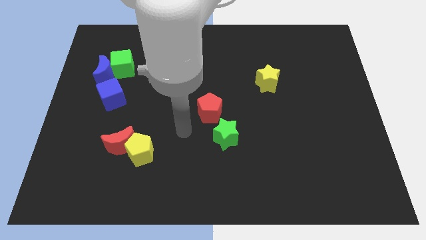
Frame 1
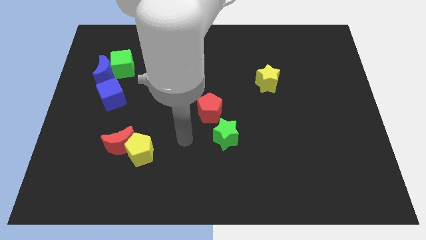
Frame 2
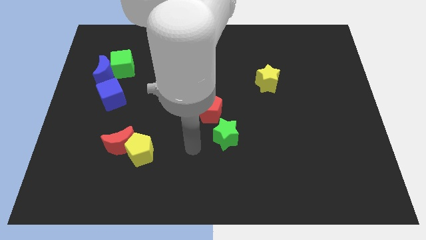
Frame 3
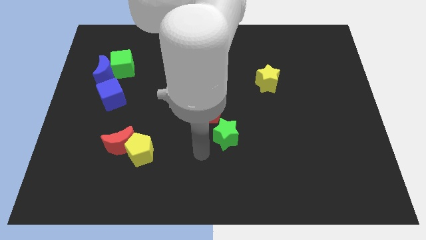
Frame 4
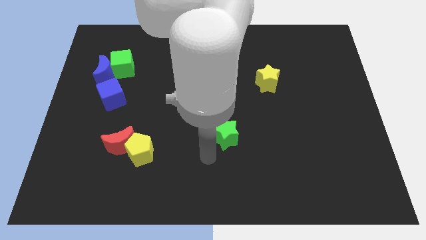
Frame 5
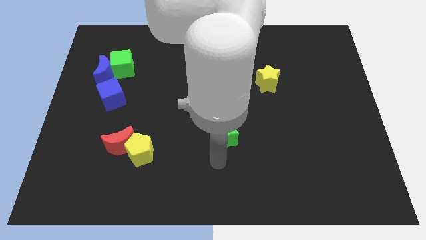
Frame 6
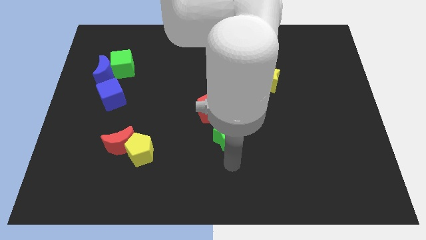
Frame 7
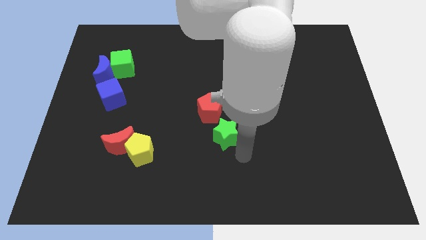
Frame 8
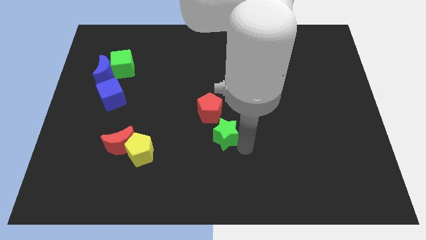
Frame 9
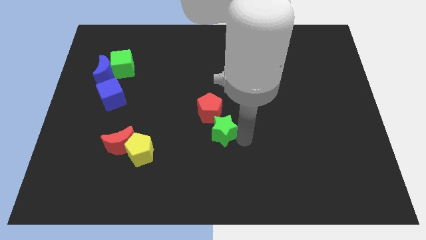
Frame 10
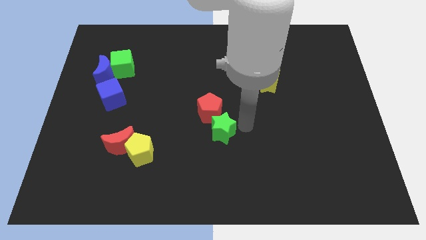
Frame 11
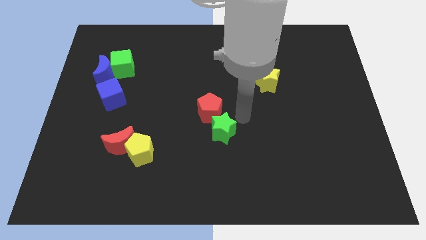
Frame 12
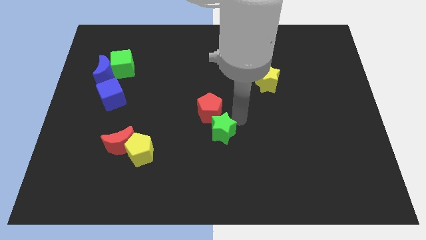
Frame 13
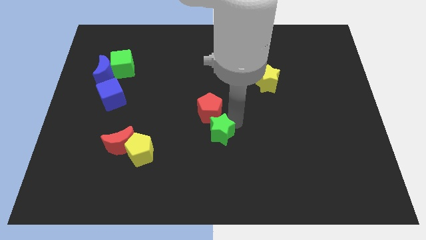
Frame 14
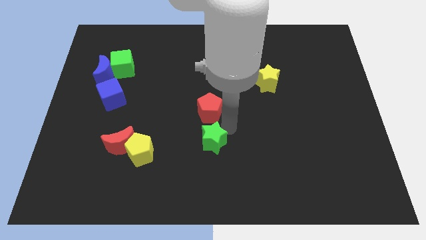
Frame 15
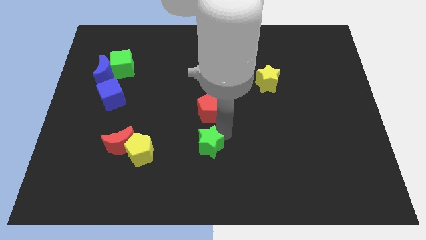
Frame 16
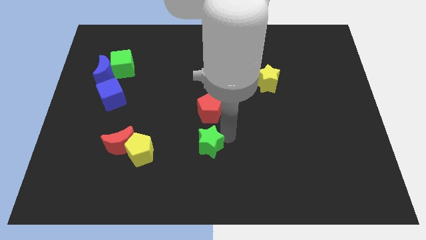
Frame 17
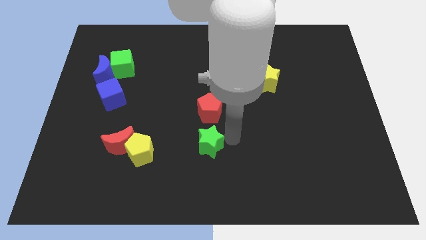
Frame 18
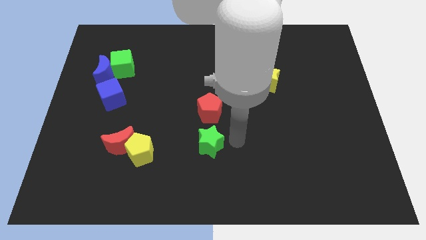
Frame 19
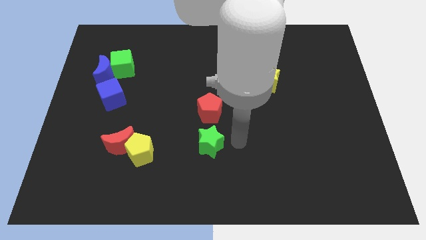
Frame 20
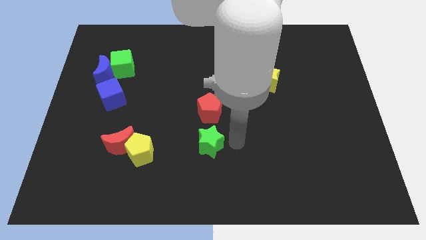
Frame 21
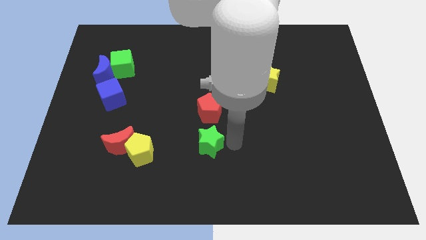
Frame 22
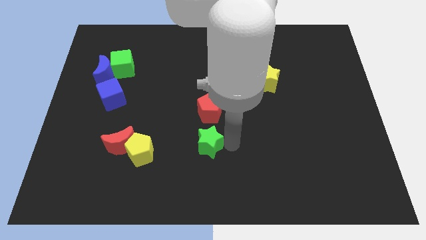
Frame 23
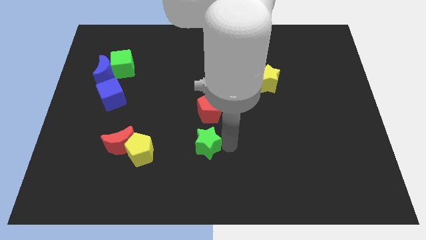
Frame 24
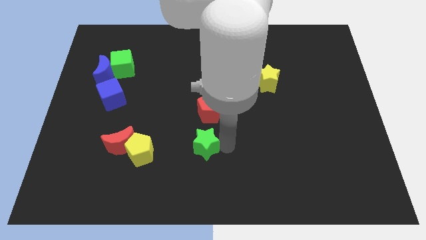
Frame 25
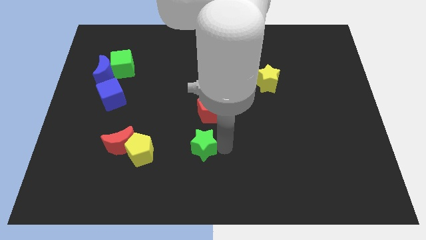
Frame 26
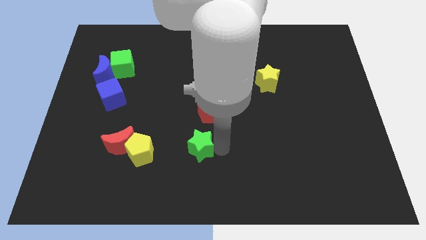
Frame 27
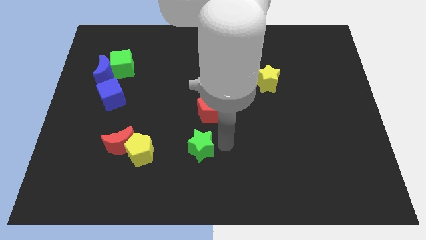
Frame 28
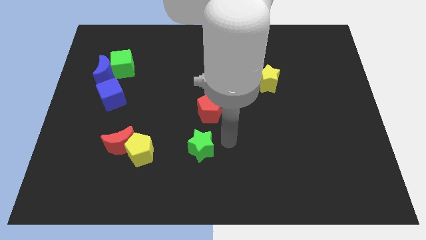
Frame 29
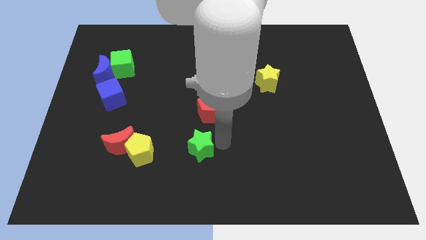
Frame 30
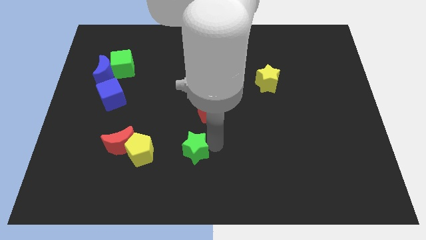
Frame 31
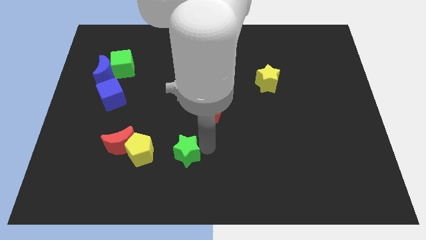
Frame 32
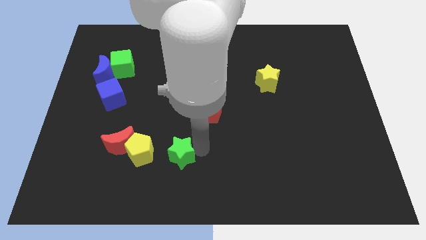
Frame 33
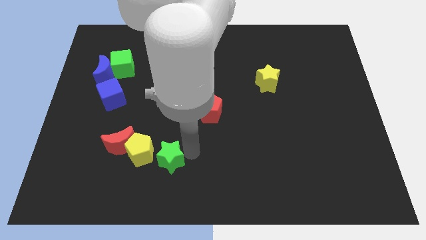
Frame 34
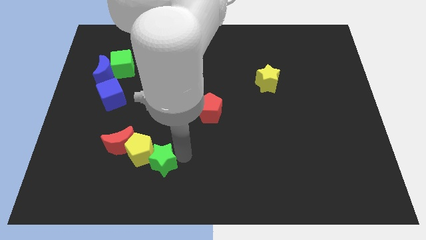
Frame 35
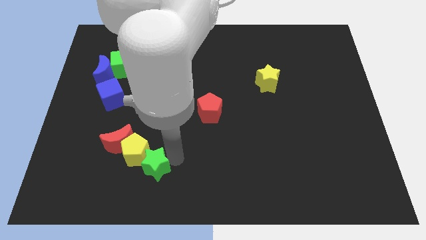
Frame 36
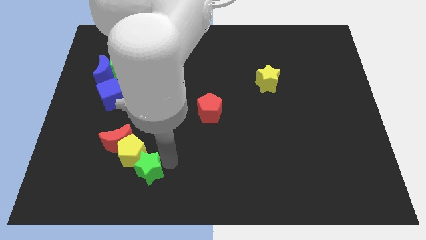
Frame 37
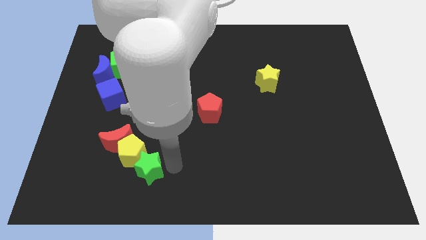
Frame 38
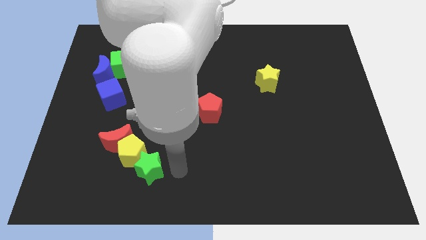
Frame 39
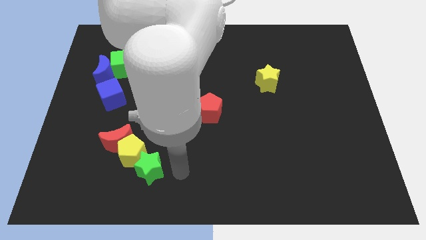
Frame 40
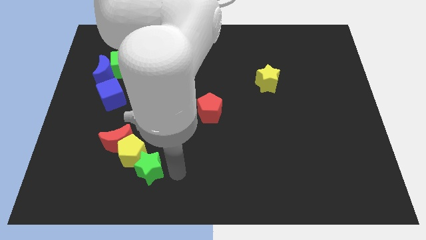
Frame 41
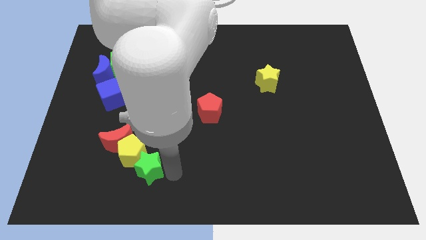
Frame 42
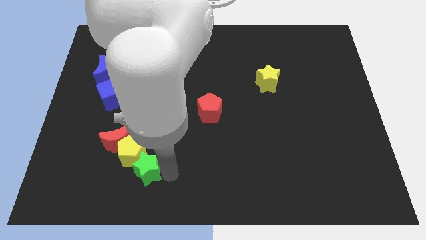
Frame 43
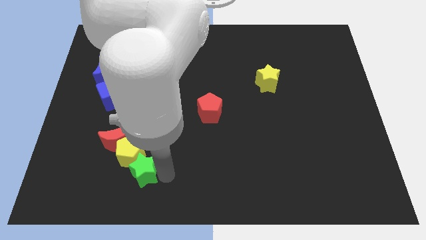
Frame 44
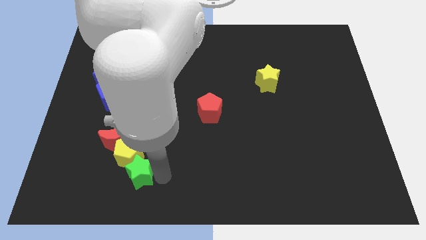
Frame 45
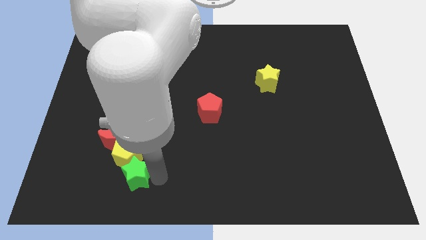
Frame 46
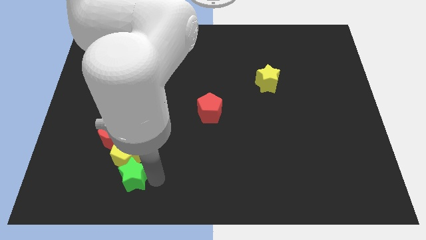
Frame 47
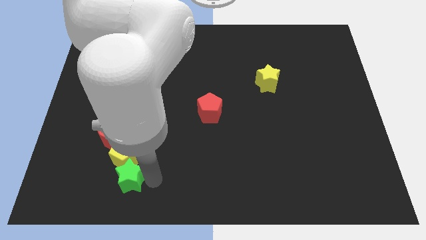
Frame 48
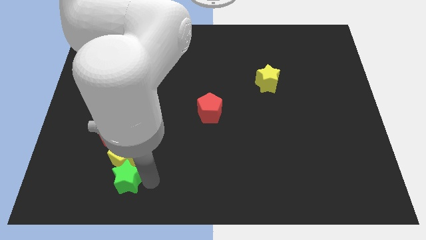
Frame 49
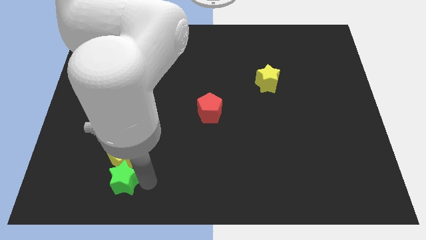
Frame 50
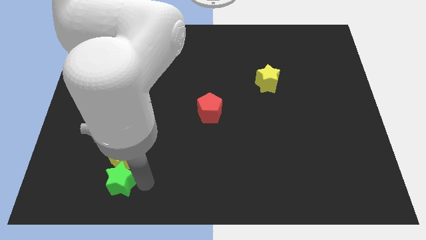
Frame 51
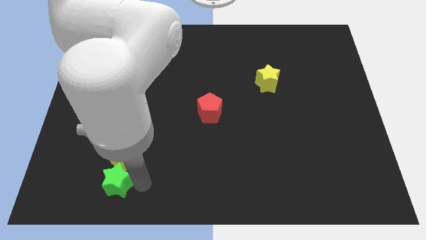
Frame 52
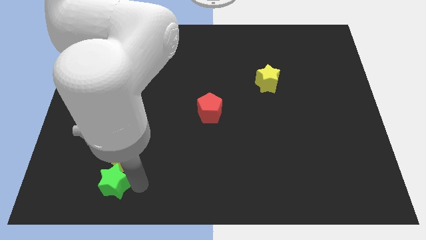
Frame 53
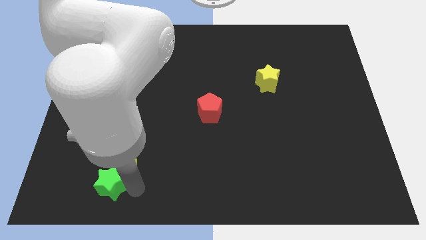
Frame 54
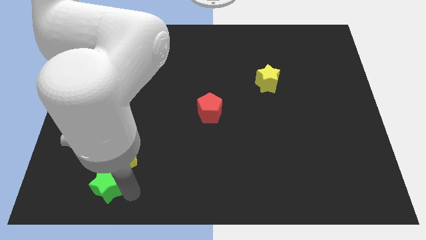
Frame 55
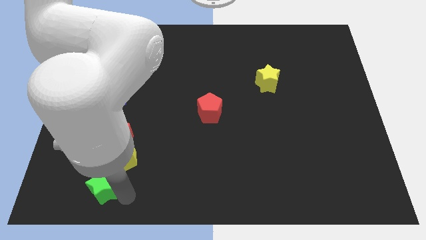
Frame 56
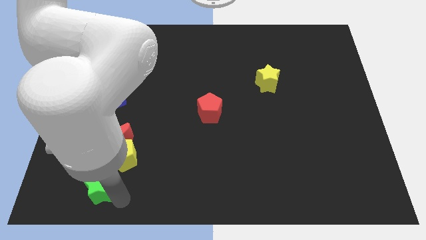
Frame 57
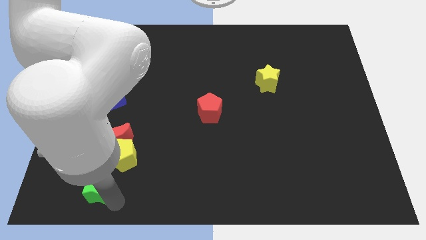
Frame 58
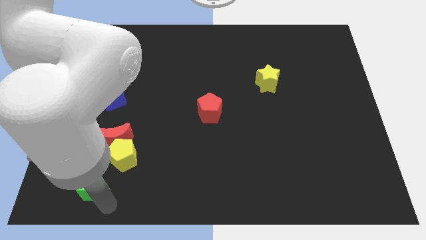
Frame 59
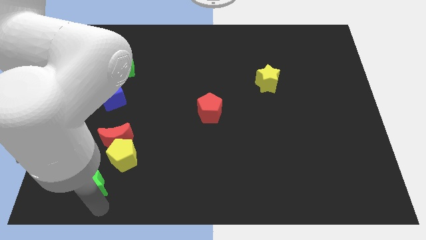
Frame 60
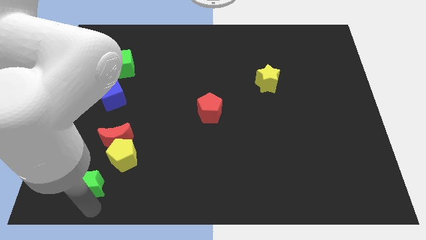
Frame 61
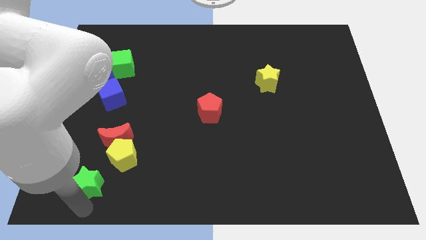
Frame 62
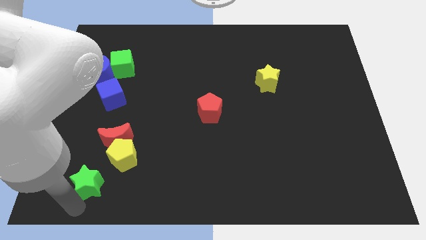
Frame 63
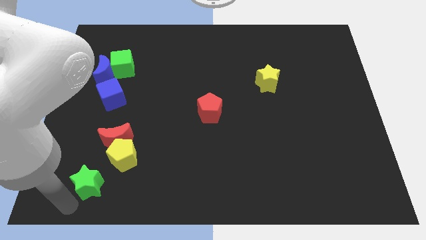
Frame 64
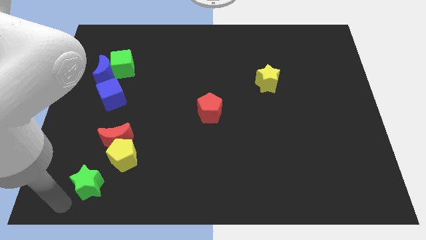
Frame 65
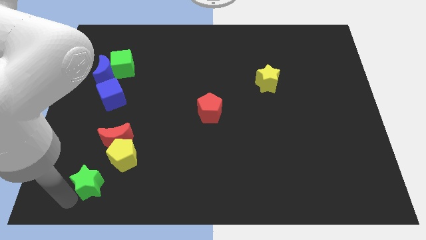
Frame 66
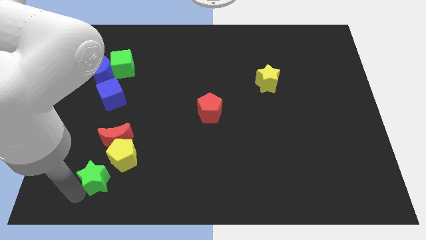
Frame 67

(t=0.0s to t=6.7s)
put the green star to the bottom left side of the red moon

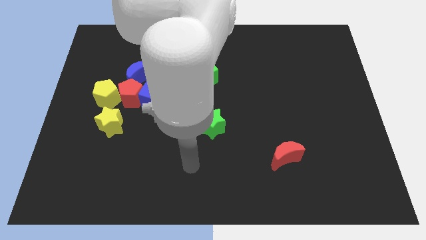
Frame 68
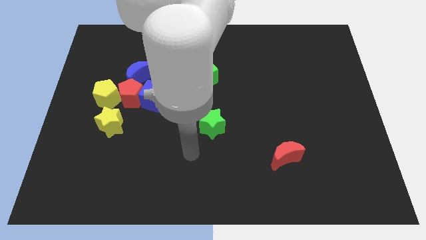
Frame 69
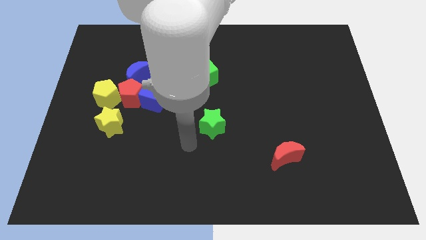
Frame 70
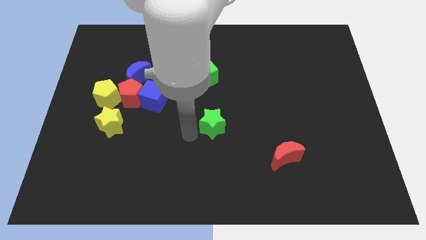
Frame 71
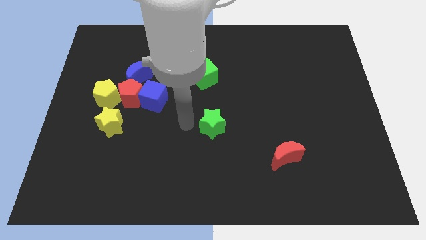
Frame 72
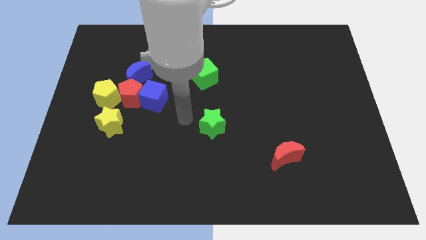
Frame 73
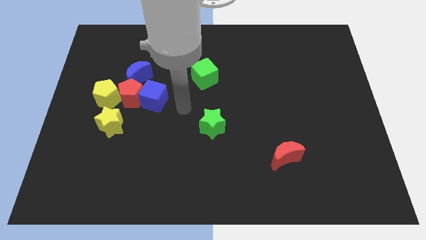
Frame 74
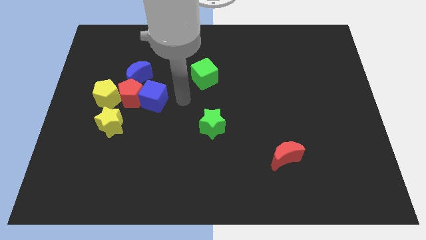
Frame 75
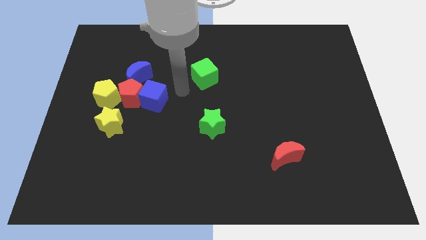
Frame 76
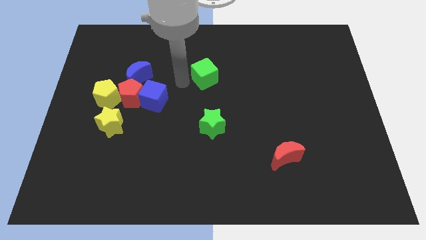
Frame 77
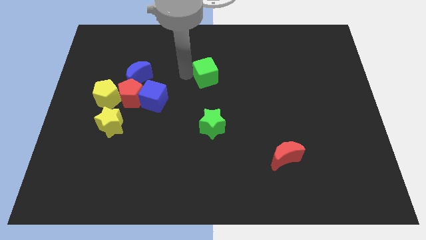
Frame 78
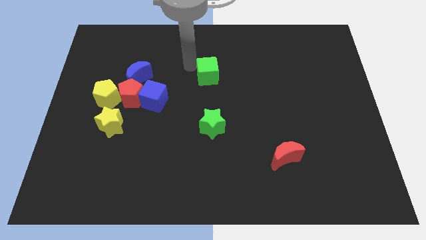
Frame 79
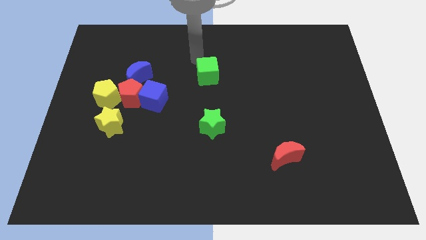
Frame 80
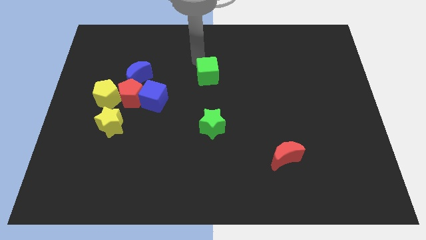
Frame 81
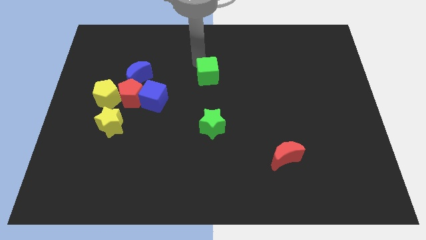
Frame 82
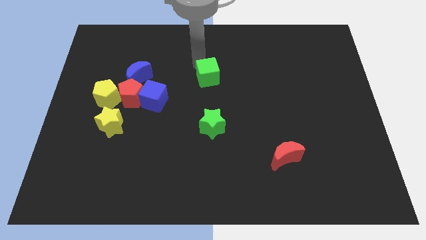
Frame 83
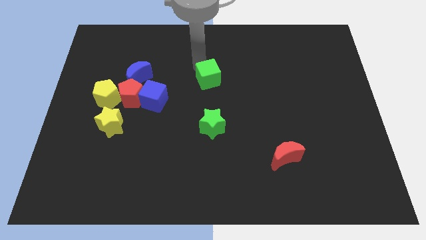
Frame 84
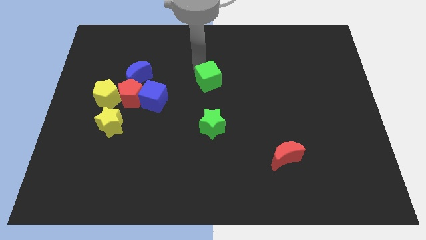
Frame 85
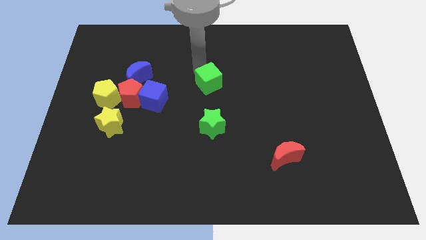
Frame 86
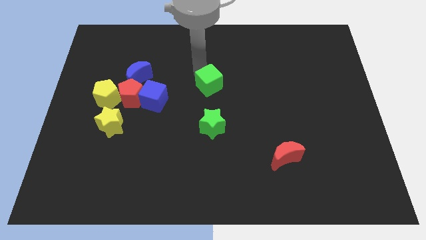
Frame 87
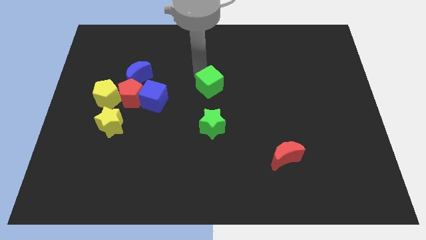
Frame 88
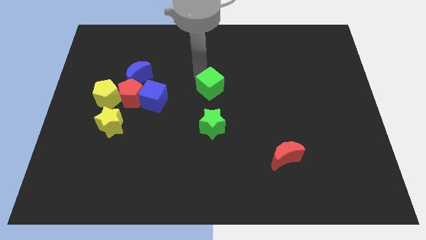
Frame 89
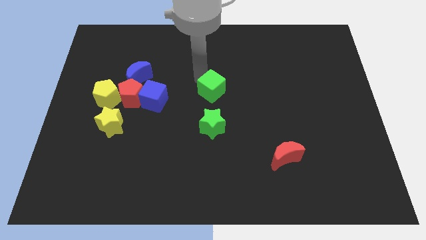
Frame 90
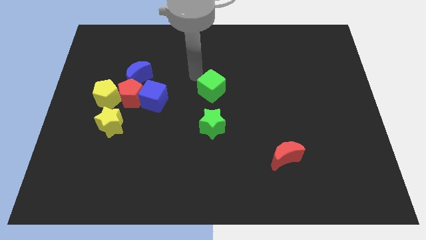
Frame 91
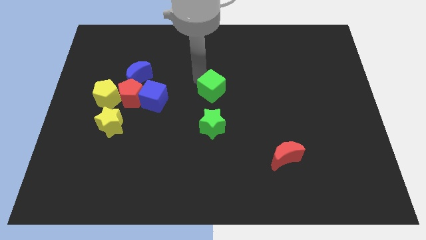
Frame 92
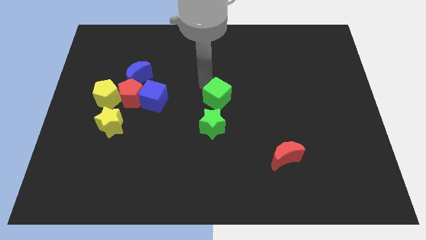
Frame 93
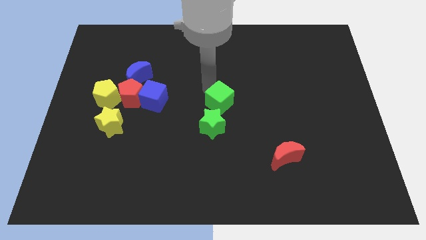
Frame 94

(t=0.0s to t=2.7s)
put the green cube diagonally up and to the right of the green star
